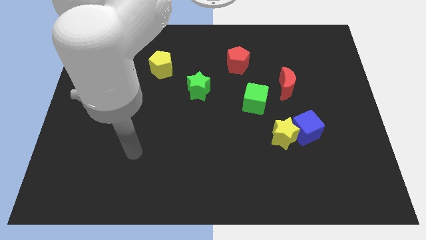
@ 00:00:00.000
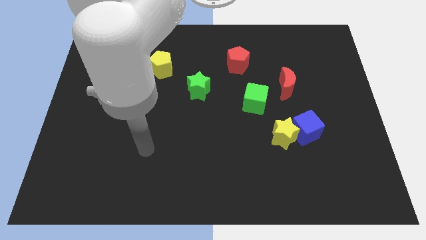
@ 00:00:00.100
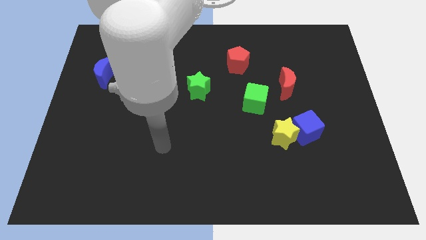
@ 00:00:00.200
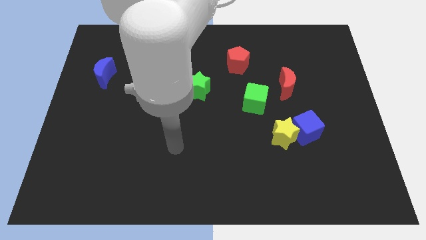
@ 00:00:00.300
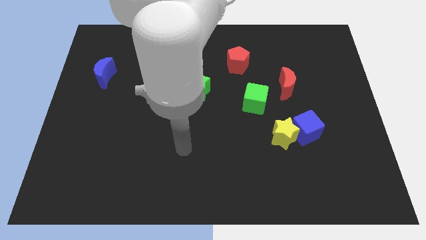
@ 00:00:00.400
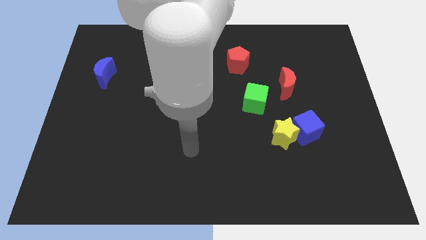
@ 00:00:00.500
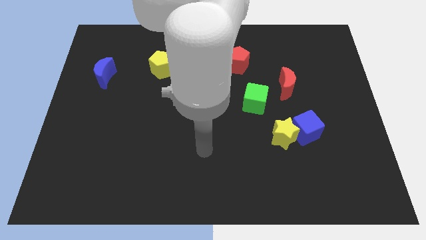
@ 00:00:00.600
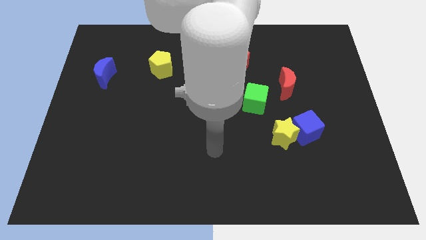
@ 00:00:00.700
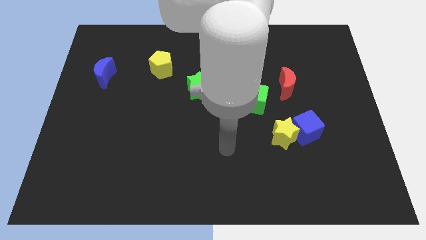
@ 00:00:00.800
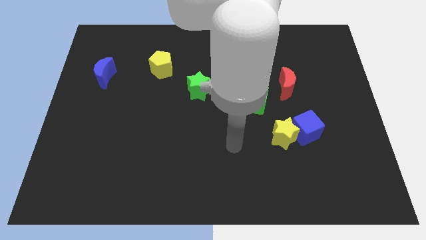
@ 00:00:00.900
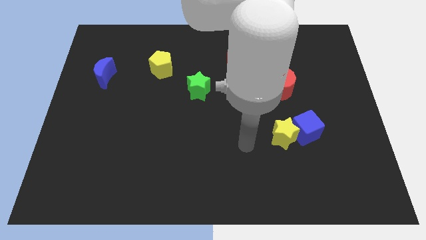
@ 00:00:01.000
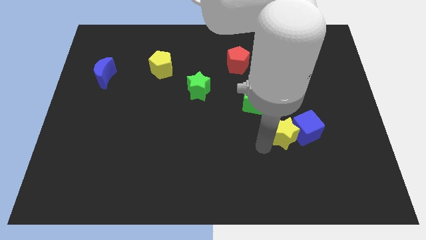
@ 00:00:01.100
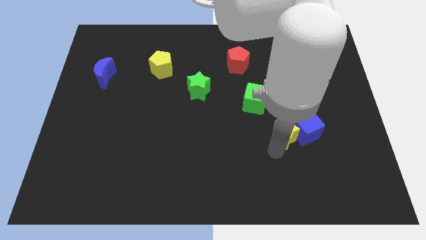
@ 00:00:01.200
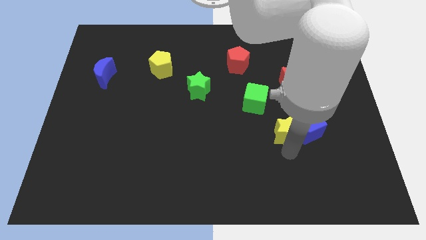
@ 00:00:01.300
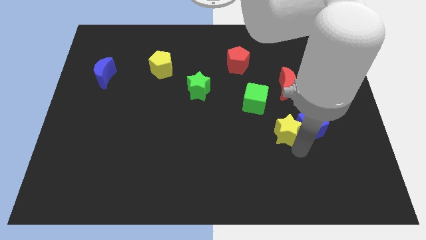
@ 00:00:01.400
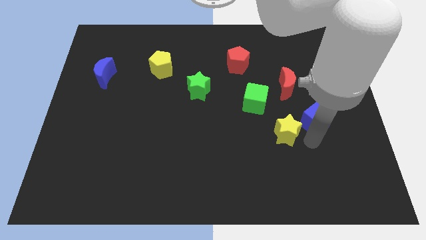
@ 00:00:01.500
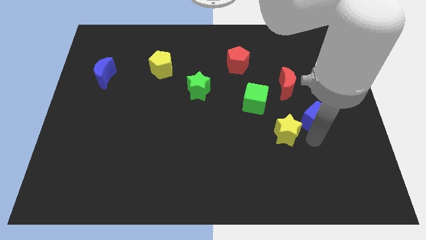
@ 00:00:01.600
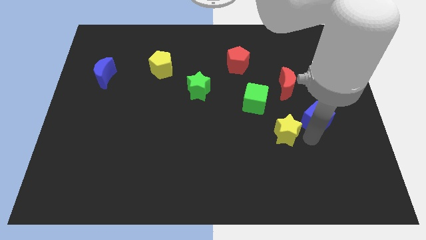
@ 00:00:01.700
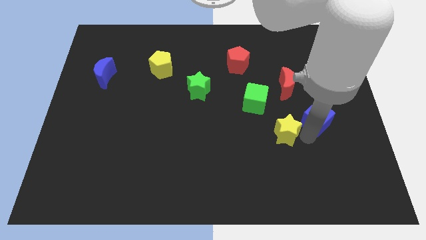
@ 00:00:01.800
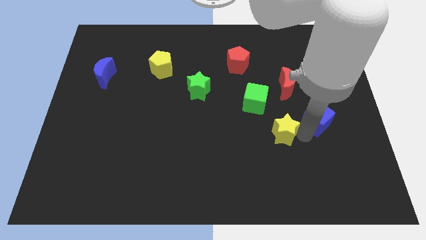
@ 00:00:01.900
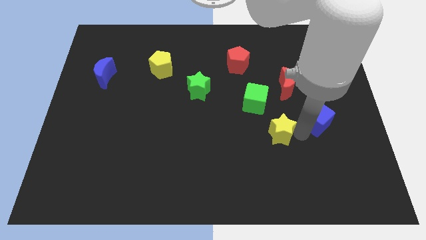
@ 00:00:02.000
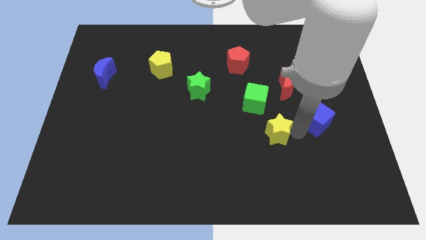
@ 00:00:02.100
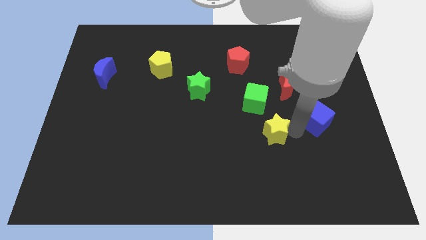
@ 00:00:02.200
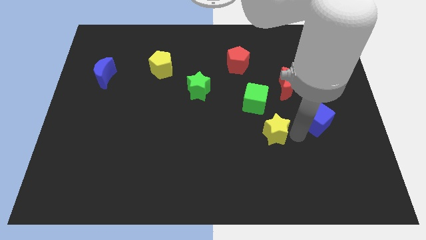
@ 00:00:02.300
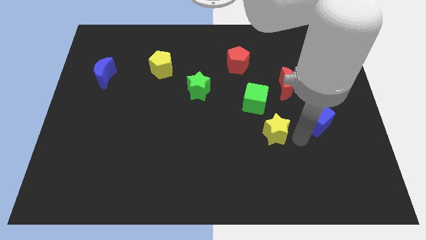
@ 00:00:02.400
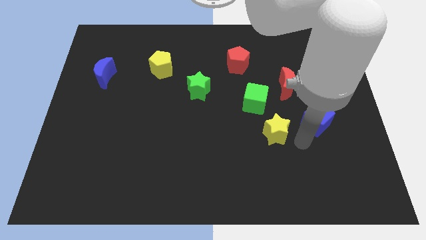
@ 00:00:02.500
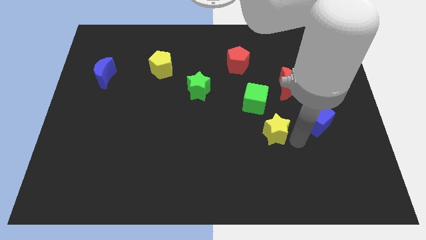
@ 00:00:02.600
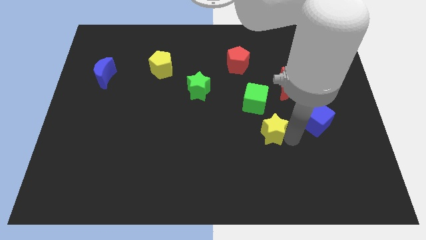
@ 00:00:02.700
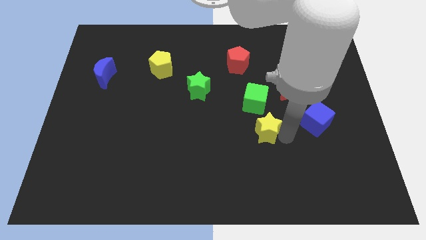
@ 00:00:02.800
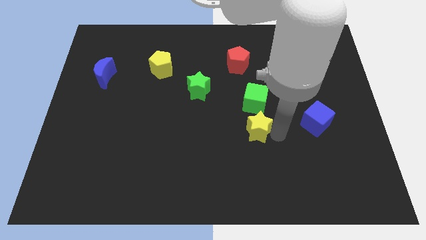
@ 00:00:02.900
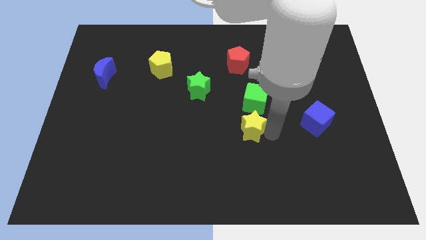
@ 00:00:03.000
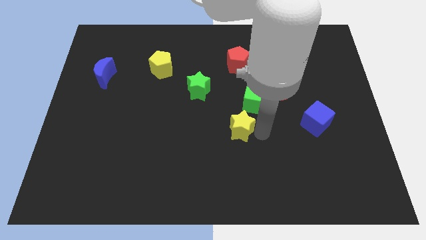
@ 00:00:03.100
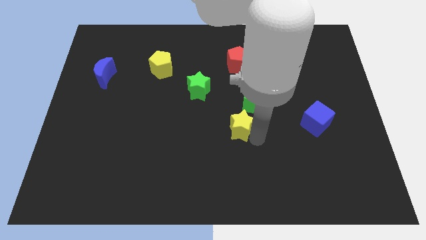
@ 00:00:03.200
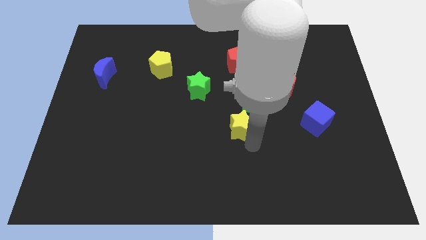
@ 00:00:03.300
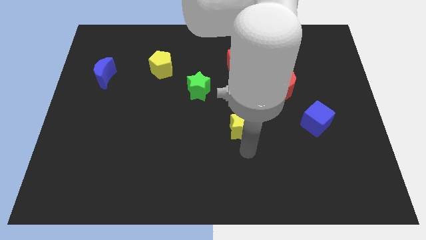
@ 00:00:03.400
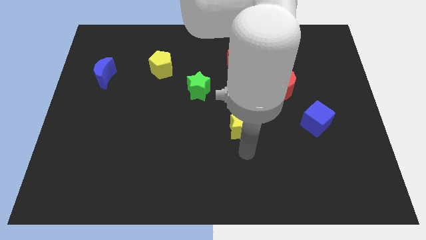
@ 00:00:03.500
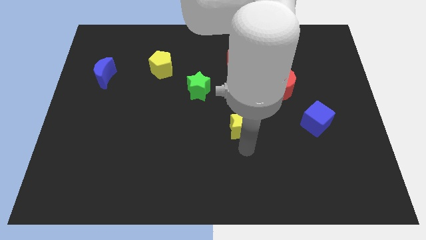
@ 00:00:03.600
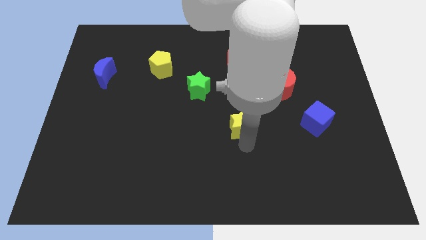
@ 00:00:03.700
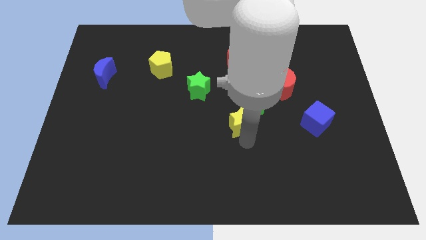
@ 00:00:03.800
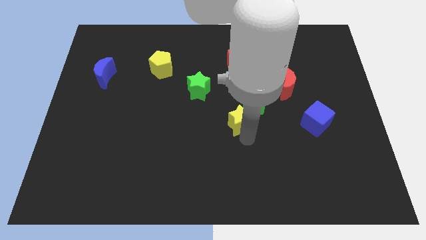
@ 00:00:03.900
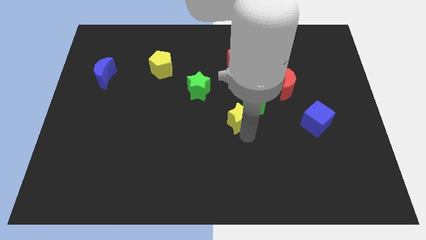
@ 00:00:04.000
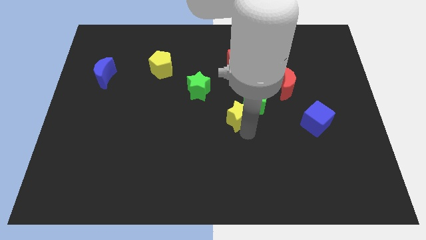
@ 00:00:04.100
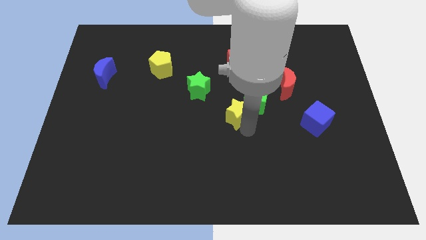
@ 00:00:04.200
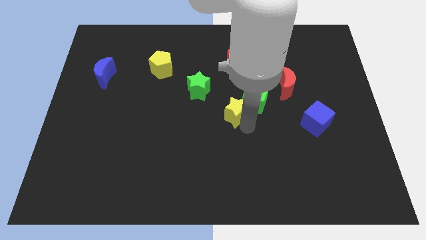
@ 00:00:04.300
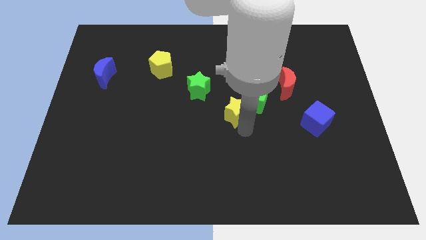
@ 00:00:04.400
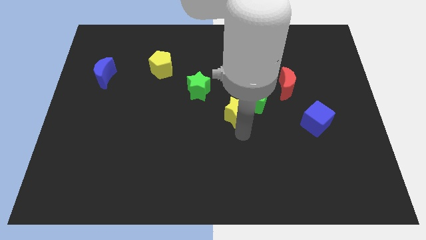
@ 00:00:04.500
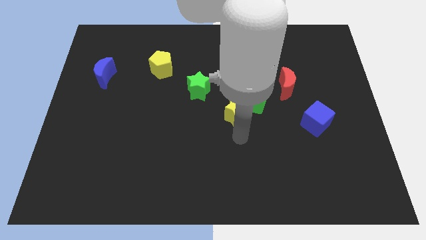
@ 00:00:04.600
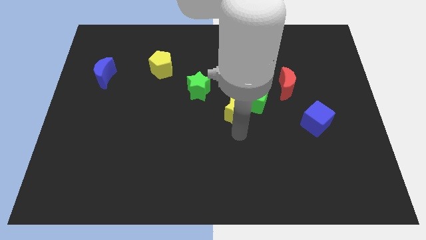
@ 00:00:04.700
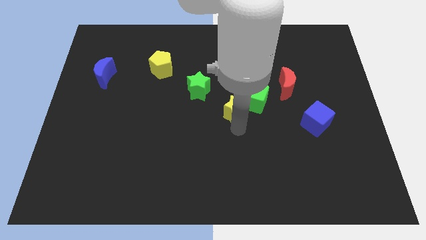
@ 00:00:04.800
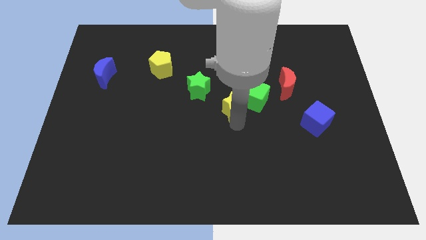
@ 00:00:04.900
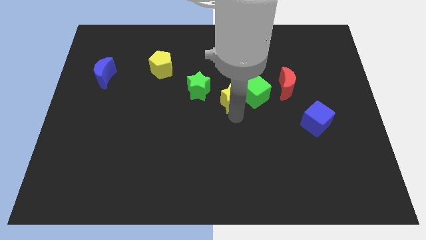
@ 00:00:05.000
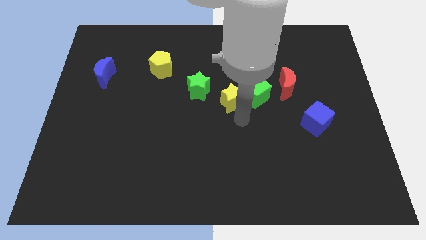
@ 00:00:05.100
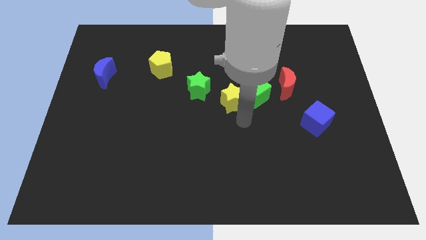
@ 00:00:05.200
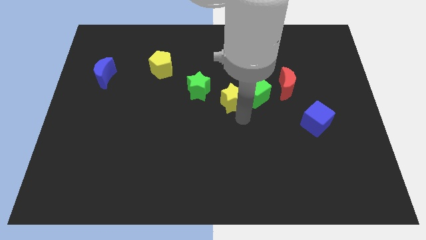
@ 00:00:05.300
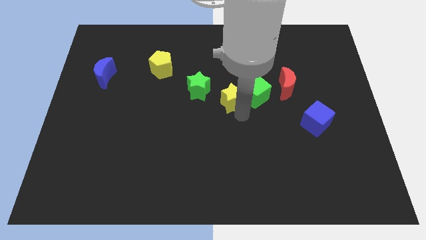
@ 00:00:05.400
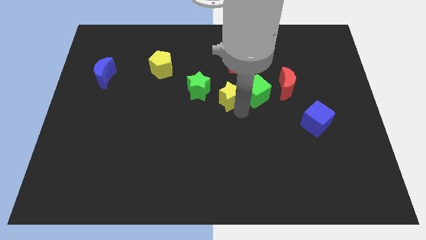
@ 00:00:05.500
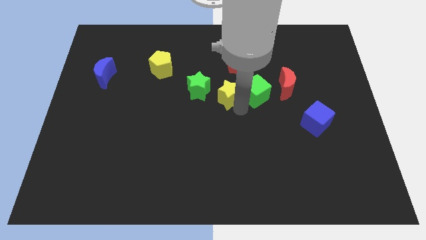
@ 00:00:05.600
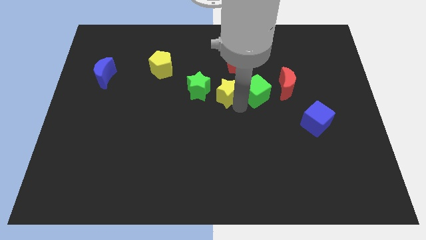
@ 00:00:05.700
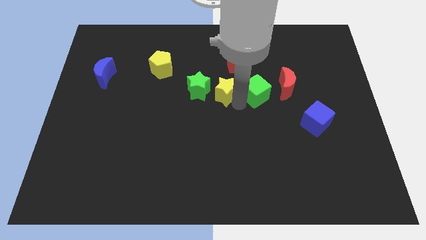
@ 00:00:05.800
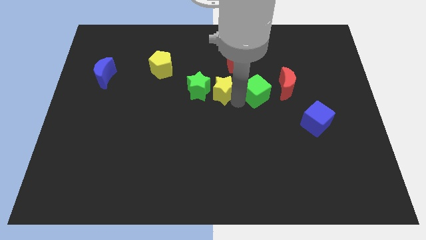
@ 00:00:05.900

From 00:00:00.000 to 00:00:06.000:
move the yellow star diagonally down and to the left of the red pentagon

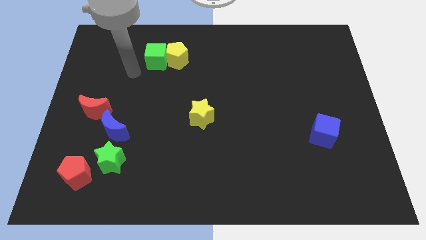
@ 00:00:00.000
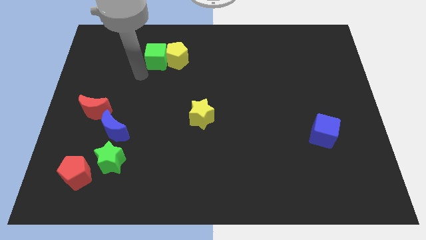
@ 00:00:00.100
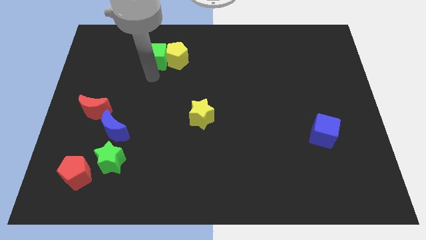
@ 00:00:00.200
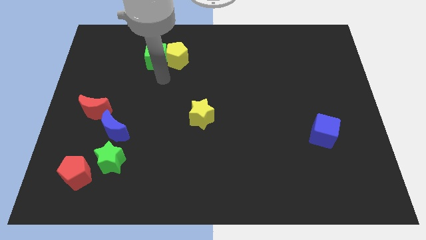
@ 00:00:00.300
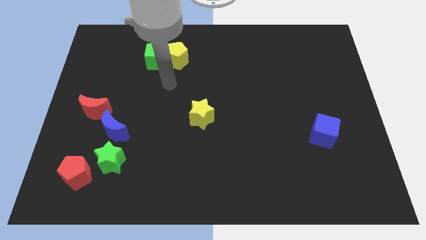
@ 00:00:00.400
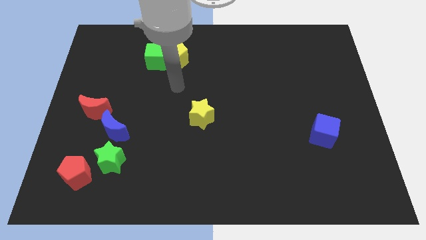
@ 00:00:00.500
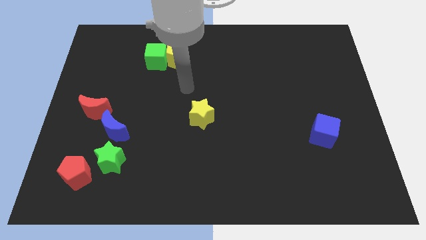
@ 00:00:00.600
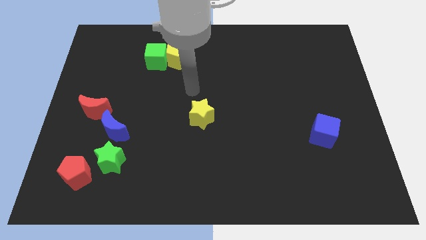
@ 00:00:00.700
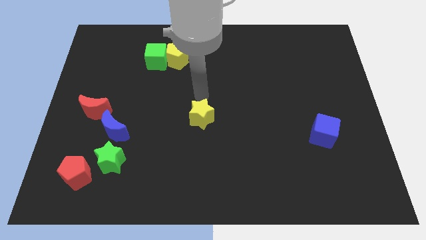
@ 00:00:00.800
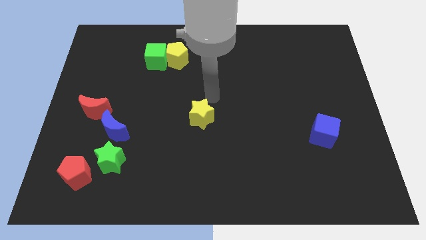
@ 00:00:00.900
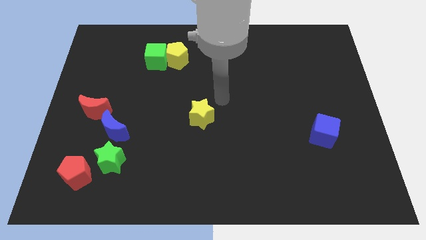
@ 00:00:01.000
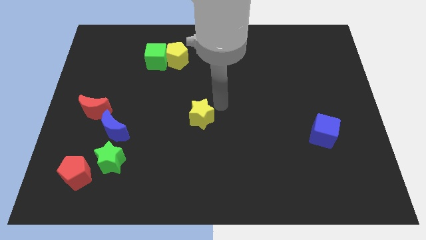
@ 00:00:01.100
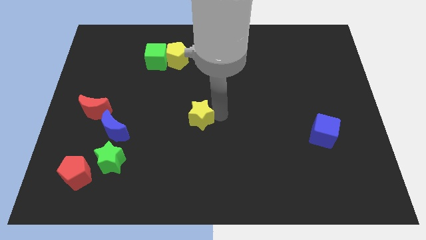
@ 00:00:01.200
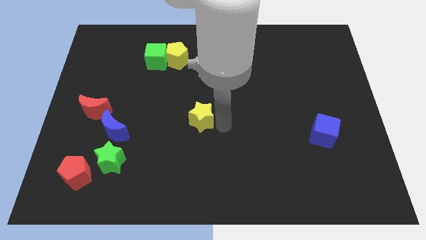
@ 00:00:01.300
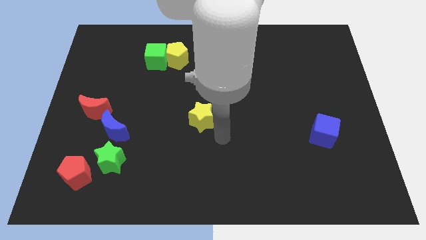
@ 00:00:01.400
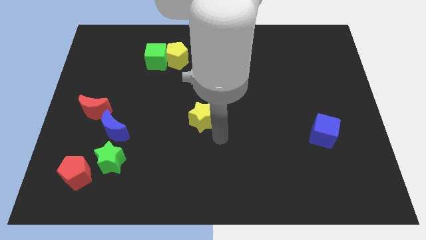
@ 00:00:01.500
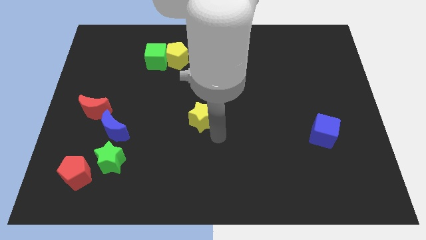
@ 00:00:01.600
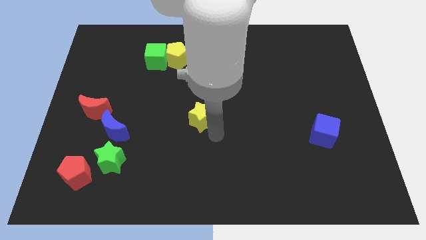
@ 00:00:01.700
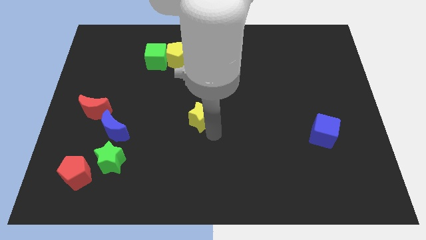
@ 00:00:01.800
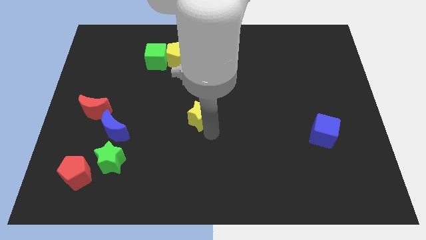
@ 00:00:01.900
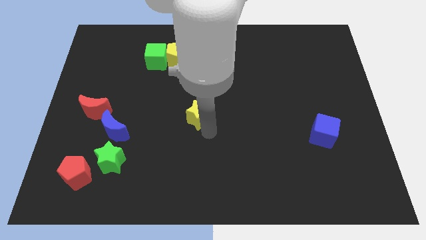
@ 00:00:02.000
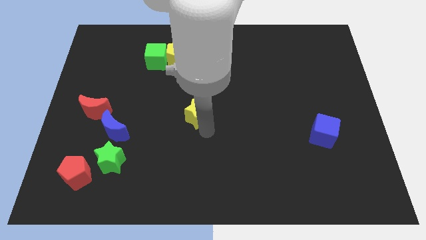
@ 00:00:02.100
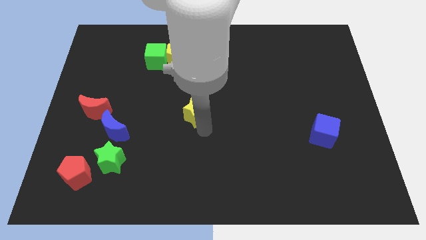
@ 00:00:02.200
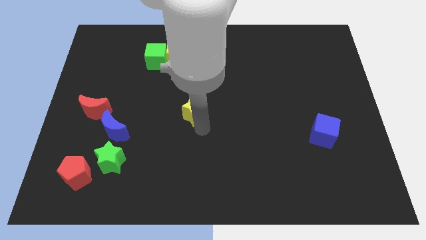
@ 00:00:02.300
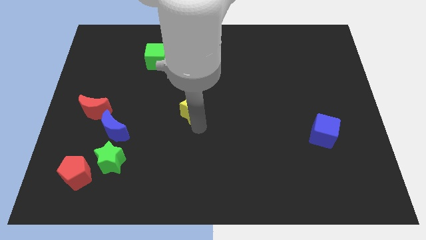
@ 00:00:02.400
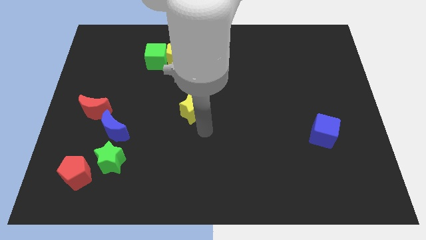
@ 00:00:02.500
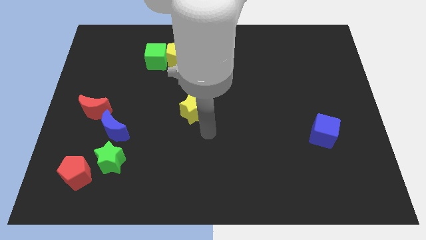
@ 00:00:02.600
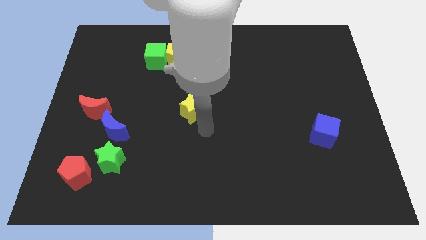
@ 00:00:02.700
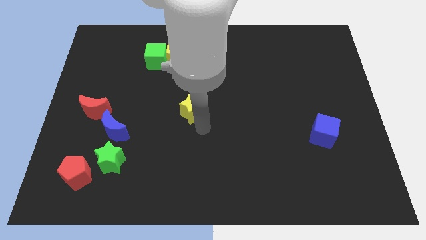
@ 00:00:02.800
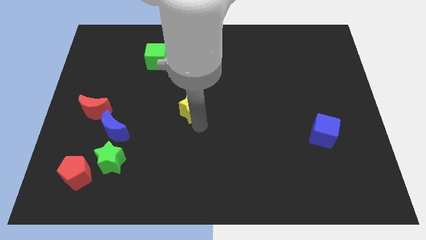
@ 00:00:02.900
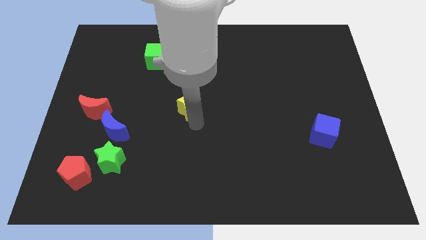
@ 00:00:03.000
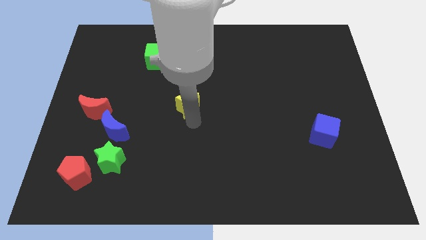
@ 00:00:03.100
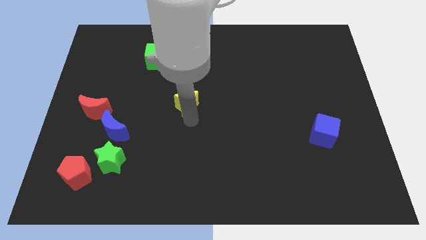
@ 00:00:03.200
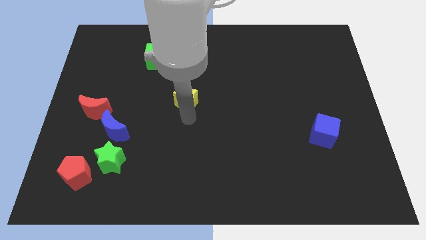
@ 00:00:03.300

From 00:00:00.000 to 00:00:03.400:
put the yellow star to the bottom side of the yellow pentagon
